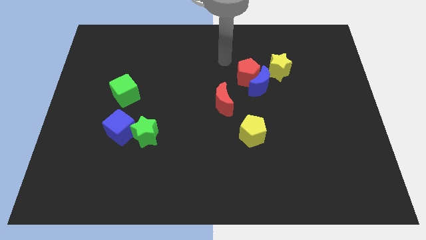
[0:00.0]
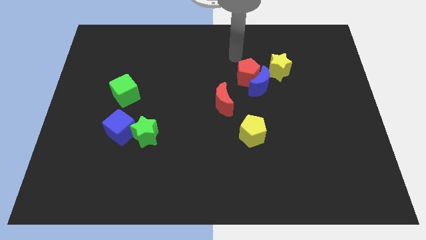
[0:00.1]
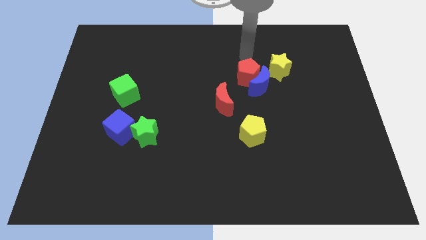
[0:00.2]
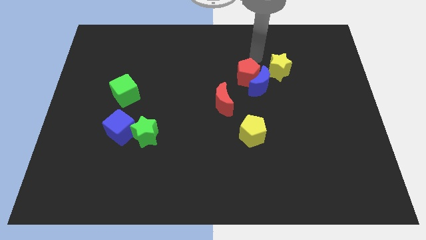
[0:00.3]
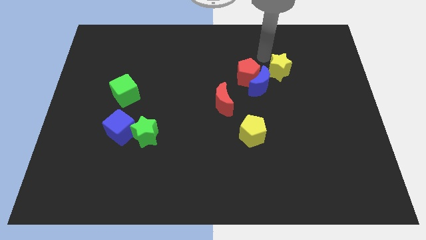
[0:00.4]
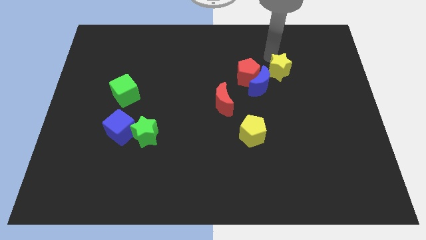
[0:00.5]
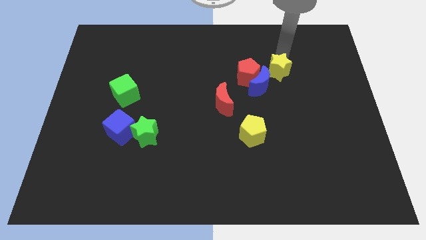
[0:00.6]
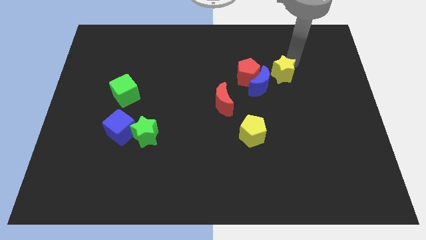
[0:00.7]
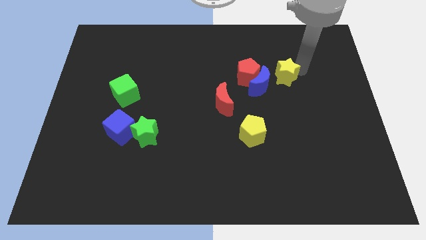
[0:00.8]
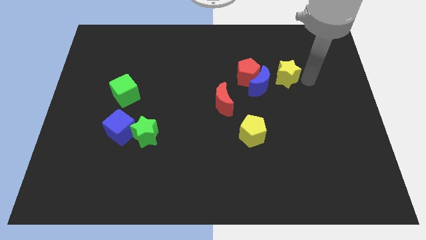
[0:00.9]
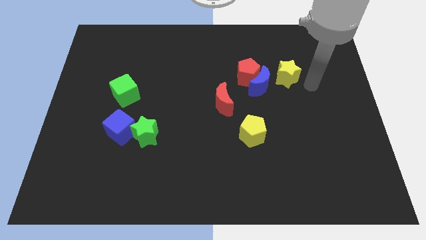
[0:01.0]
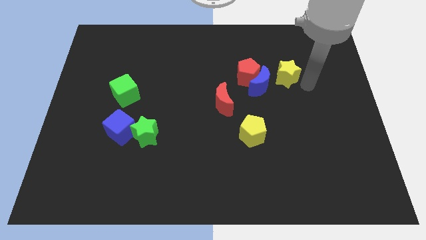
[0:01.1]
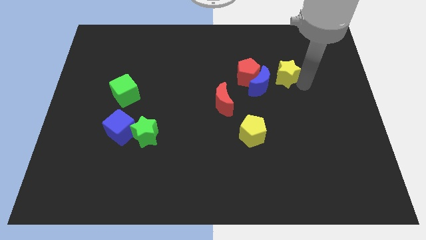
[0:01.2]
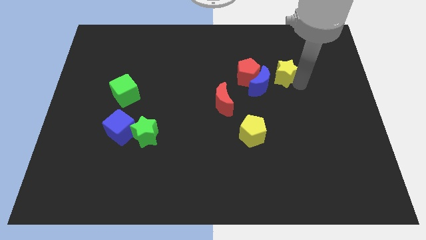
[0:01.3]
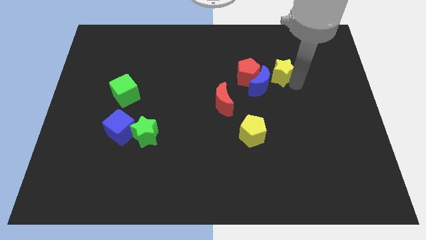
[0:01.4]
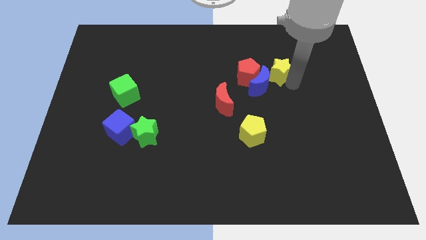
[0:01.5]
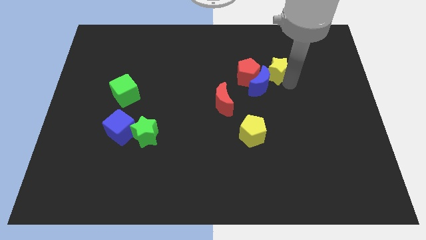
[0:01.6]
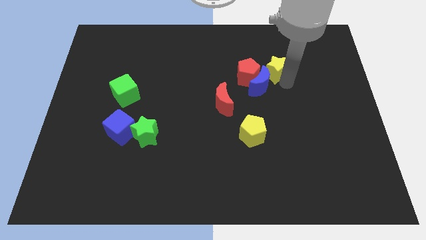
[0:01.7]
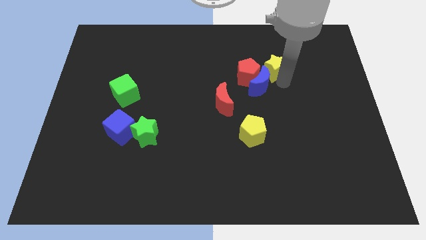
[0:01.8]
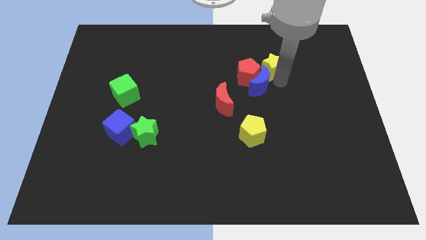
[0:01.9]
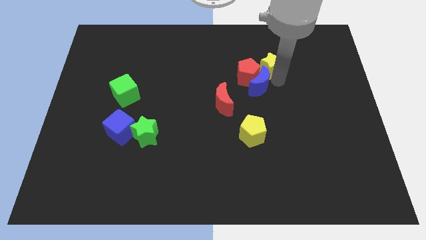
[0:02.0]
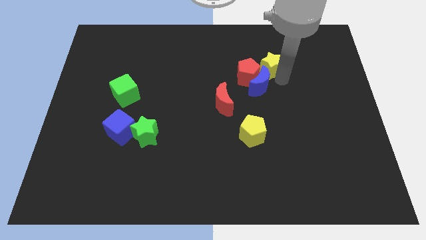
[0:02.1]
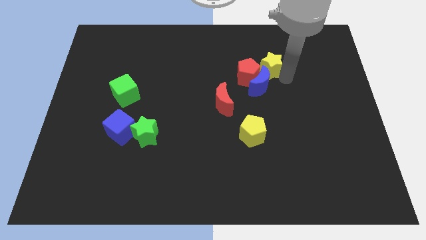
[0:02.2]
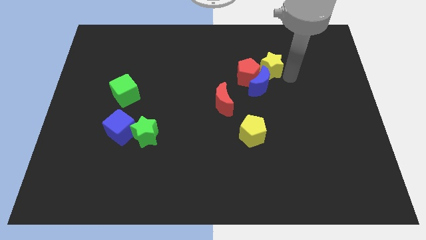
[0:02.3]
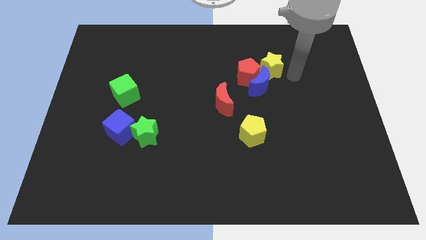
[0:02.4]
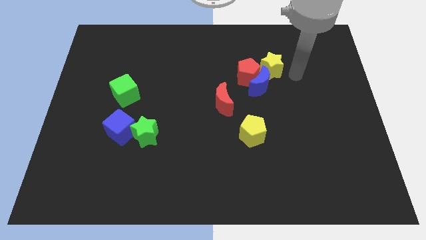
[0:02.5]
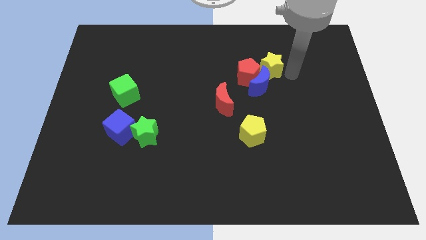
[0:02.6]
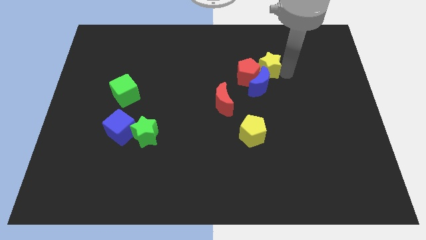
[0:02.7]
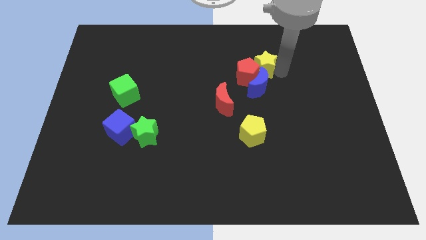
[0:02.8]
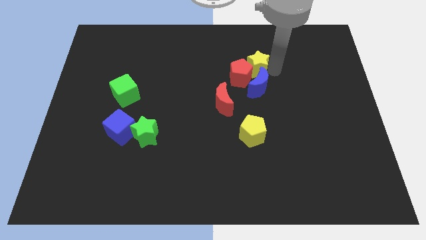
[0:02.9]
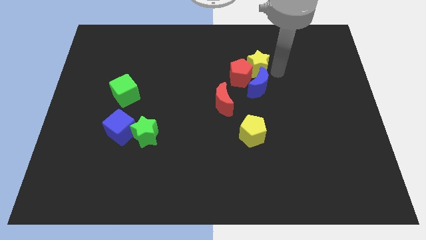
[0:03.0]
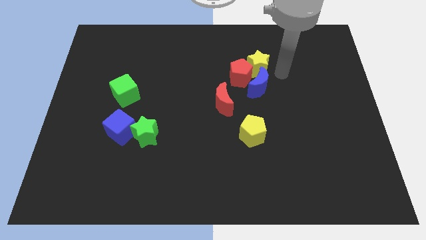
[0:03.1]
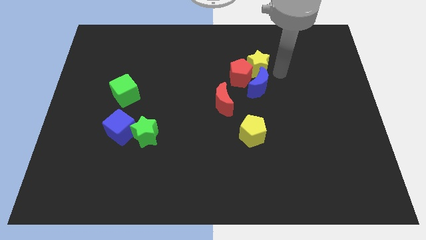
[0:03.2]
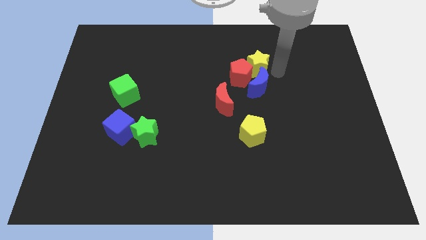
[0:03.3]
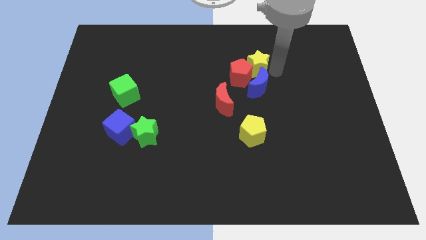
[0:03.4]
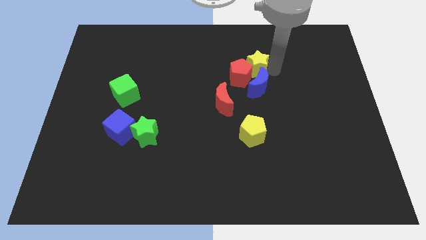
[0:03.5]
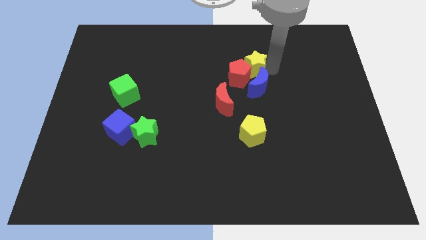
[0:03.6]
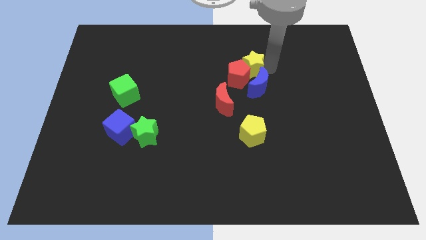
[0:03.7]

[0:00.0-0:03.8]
slightly move the yellow star to the left

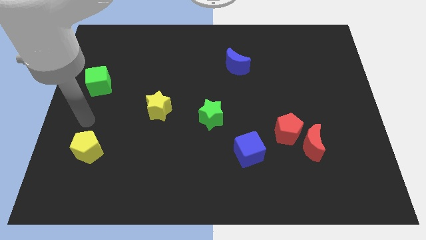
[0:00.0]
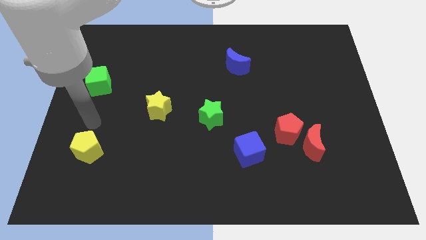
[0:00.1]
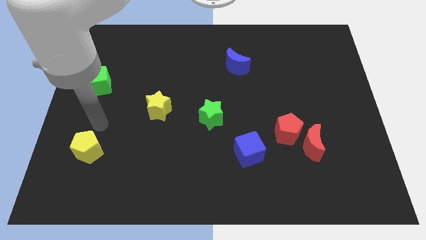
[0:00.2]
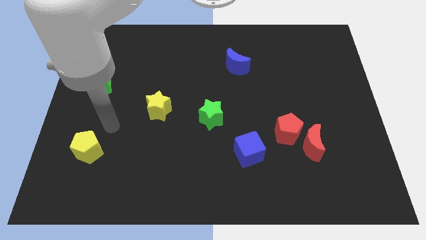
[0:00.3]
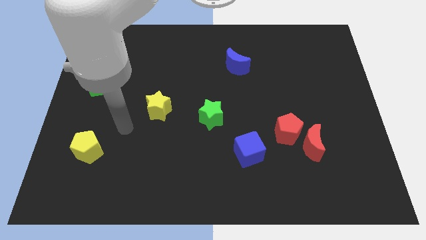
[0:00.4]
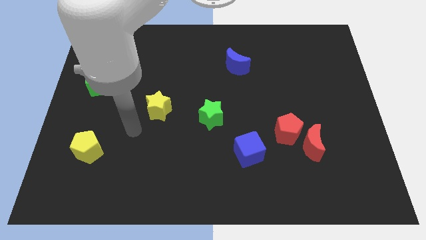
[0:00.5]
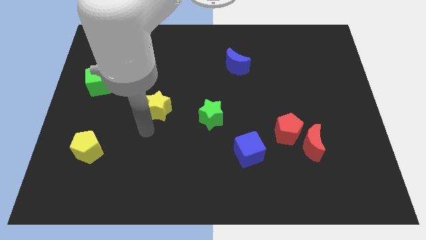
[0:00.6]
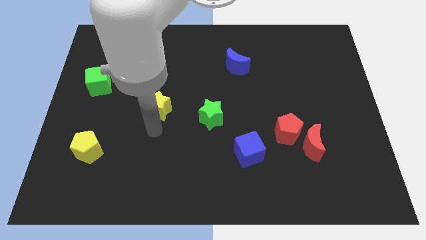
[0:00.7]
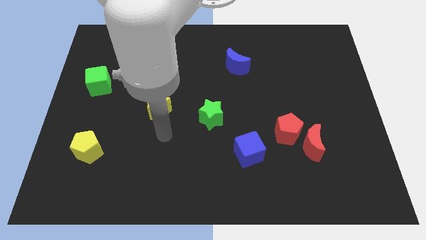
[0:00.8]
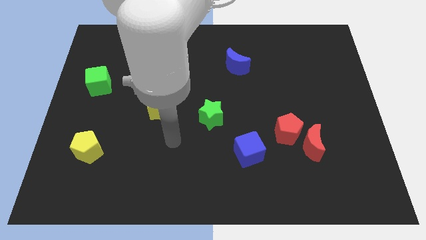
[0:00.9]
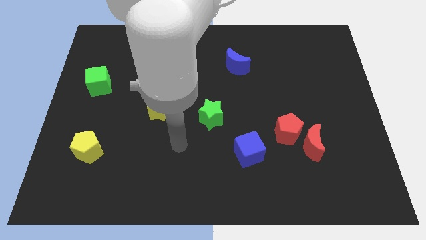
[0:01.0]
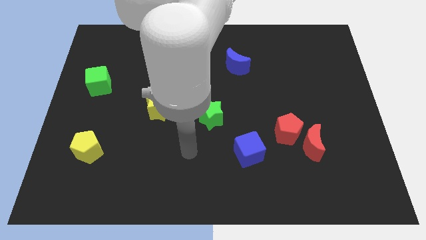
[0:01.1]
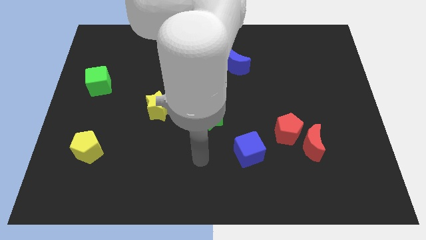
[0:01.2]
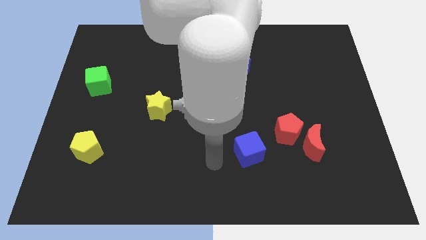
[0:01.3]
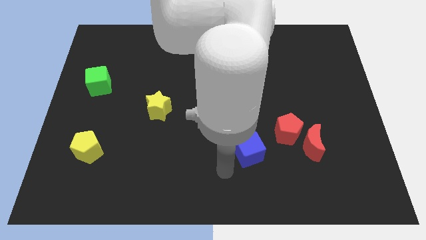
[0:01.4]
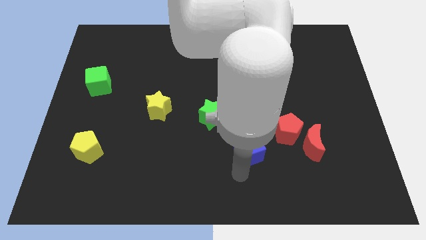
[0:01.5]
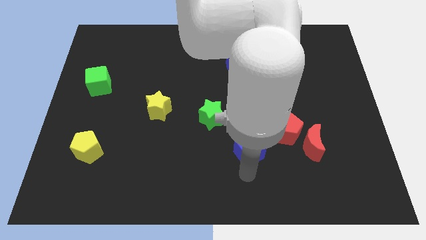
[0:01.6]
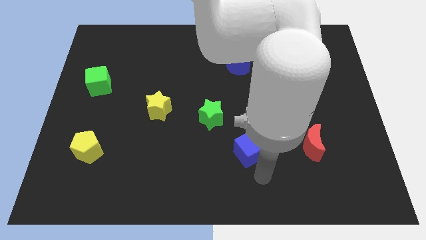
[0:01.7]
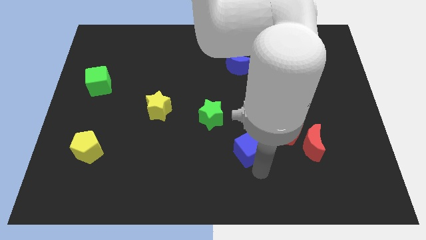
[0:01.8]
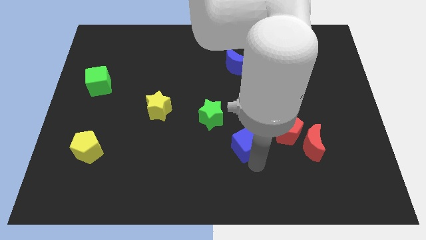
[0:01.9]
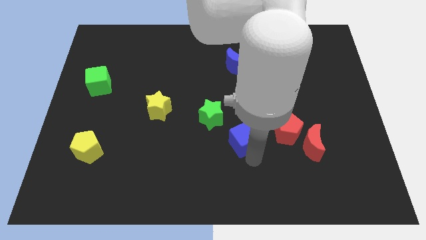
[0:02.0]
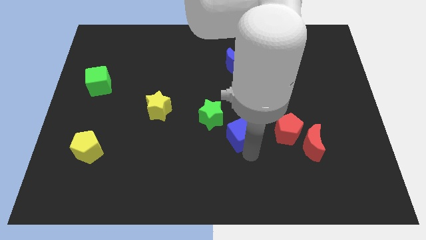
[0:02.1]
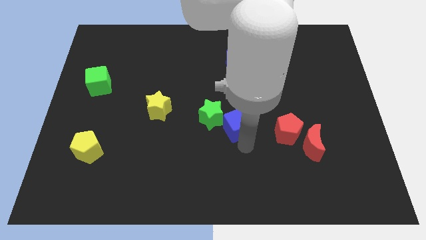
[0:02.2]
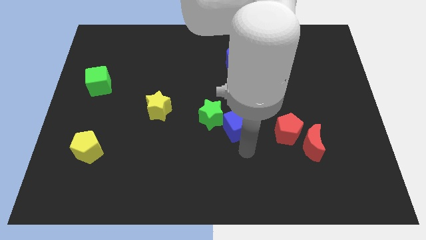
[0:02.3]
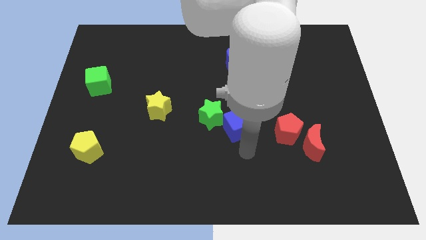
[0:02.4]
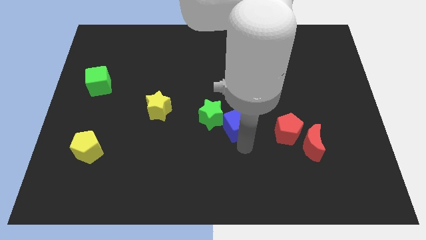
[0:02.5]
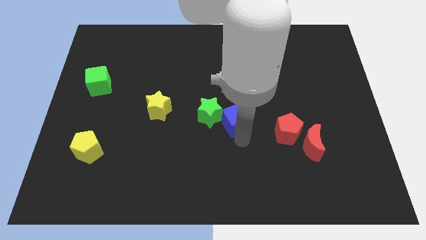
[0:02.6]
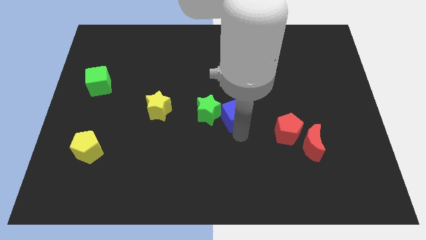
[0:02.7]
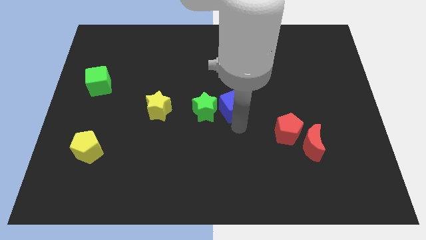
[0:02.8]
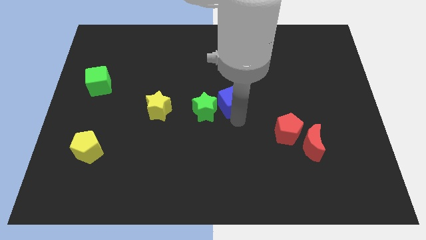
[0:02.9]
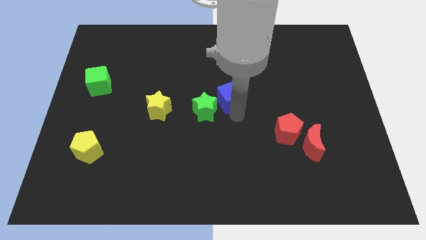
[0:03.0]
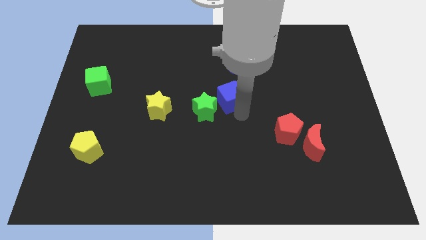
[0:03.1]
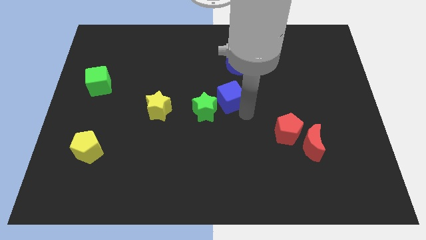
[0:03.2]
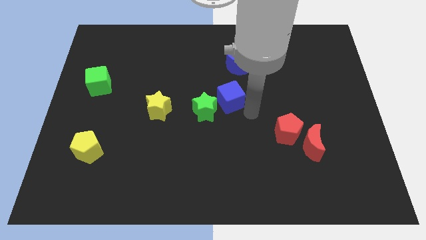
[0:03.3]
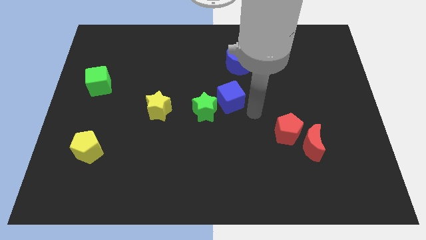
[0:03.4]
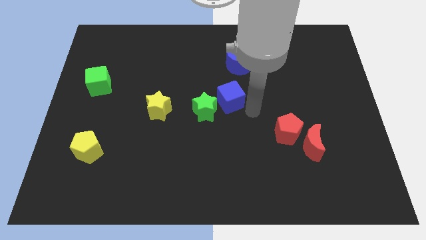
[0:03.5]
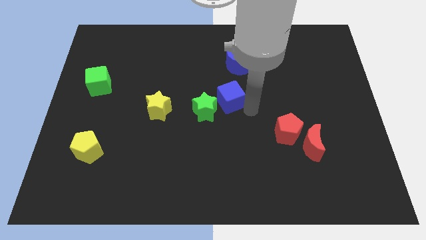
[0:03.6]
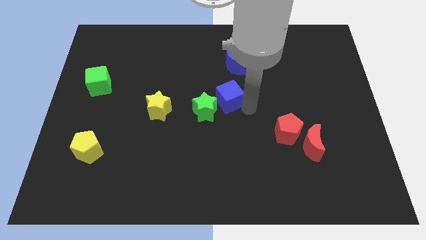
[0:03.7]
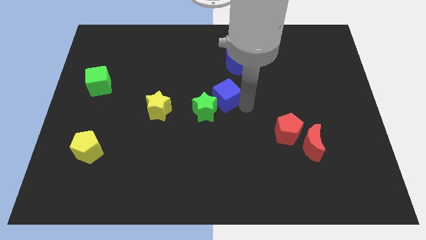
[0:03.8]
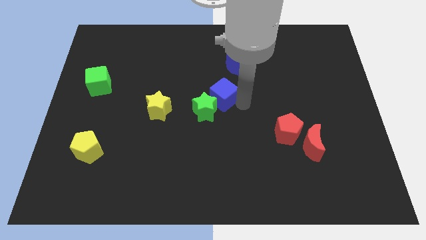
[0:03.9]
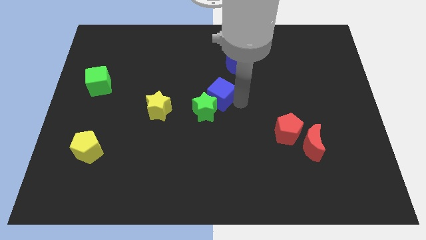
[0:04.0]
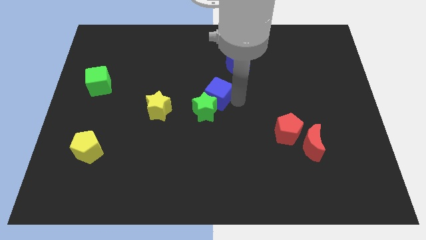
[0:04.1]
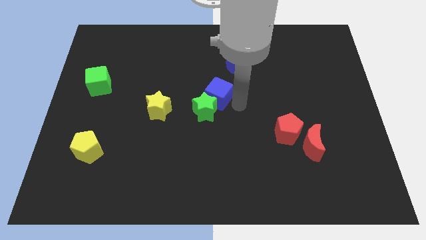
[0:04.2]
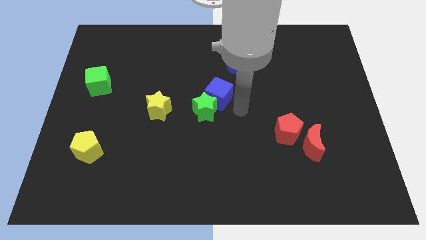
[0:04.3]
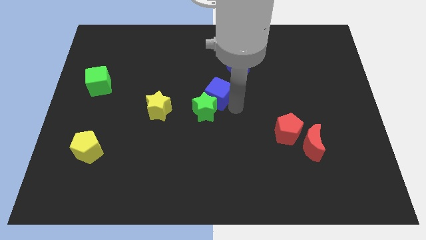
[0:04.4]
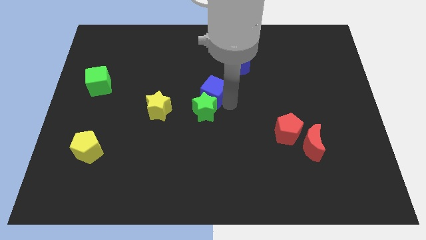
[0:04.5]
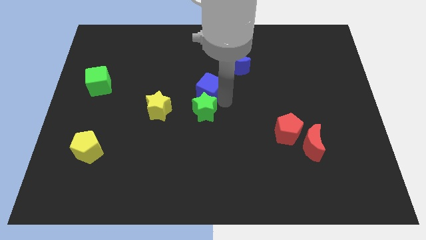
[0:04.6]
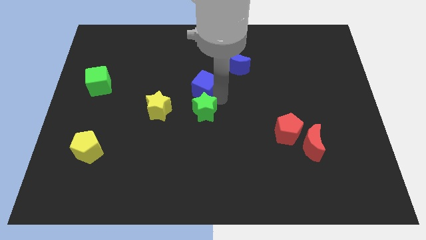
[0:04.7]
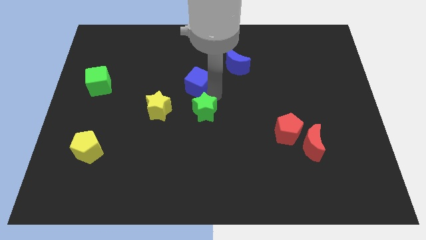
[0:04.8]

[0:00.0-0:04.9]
move the blue cube diagonally up and to the left
